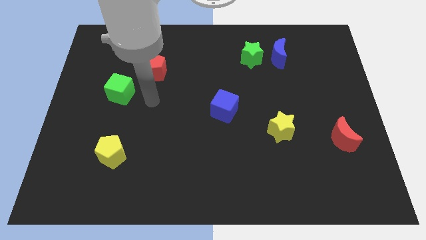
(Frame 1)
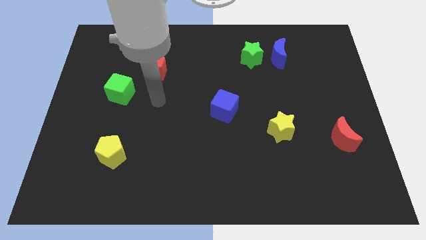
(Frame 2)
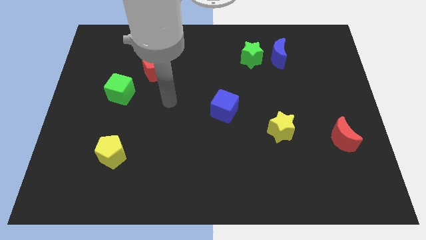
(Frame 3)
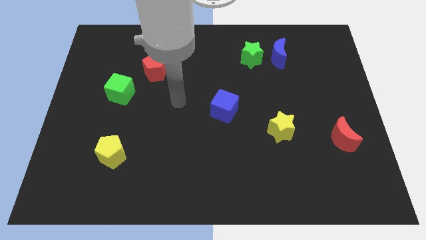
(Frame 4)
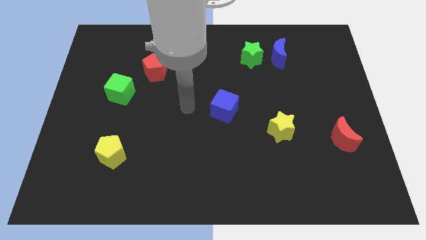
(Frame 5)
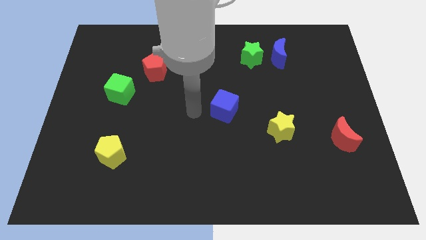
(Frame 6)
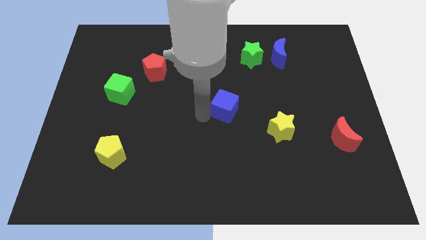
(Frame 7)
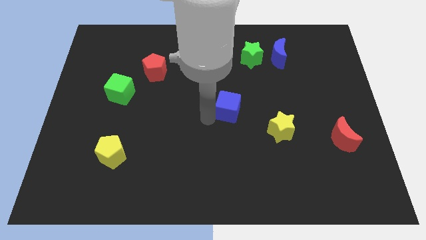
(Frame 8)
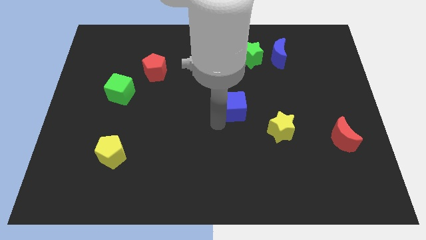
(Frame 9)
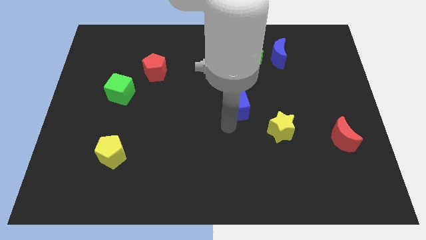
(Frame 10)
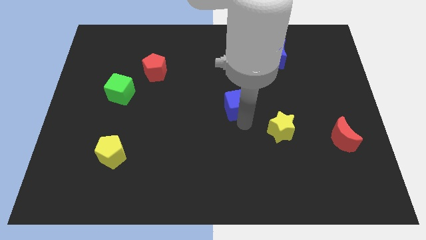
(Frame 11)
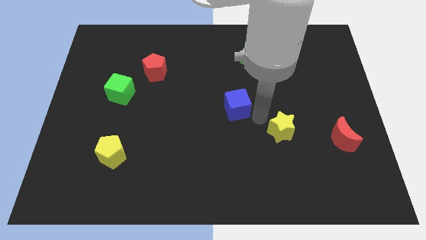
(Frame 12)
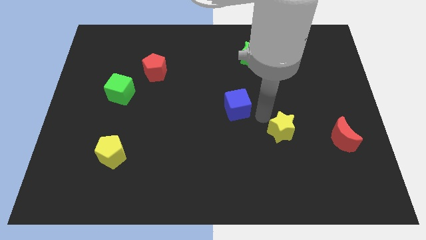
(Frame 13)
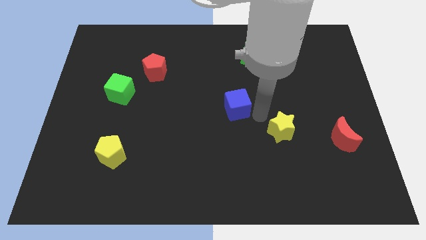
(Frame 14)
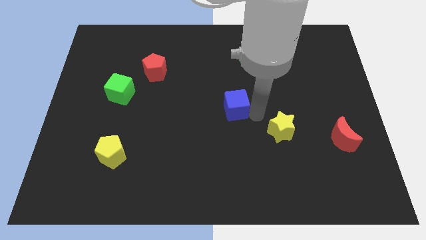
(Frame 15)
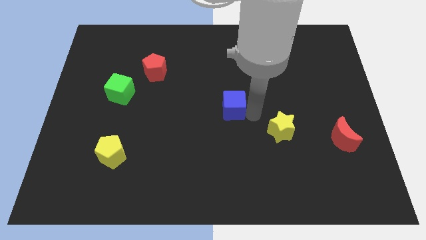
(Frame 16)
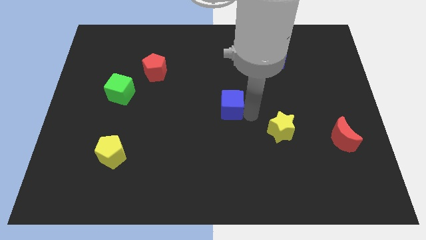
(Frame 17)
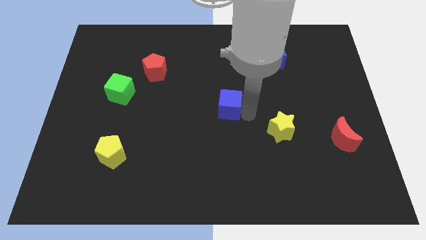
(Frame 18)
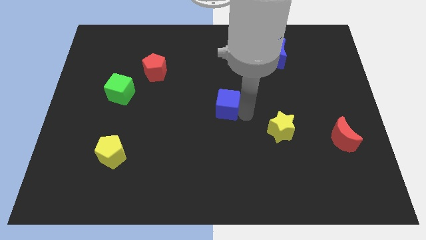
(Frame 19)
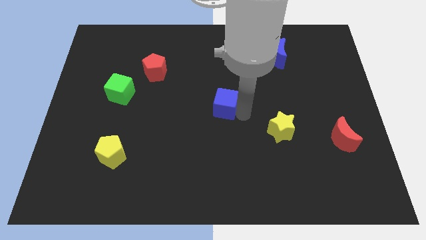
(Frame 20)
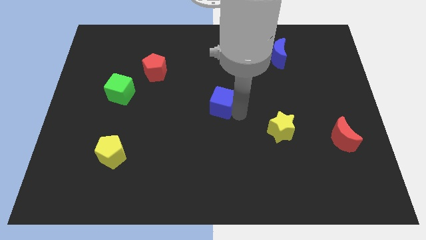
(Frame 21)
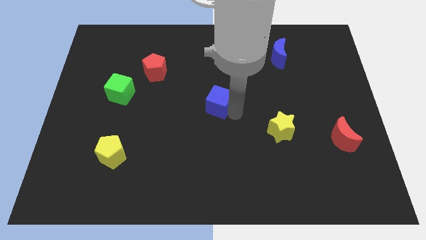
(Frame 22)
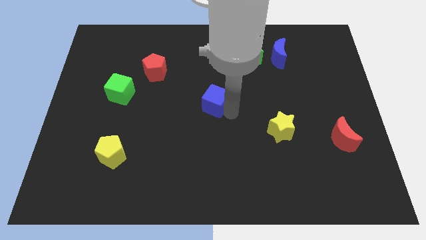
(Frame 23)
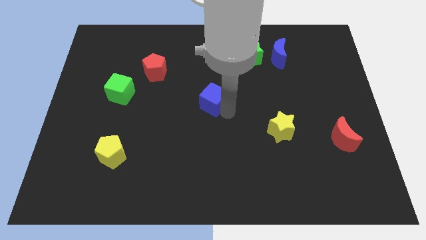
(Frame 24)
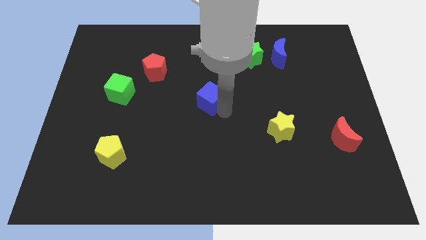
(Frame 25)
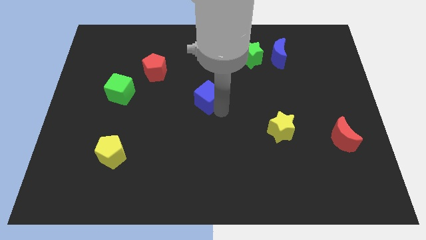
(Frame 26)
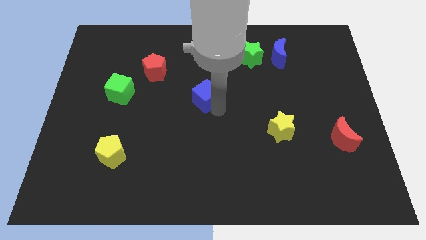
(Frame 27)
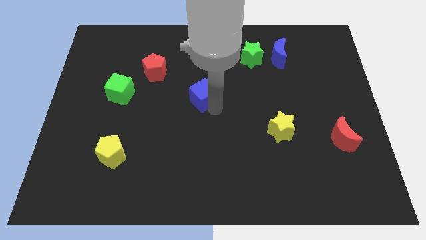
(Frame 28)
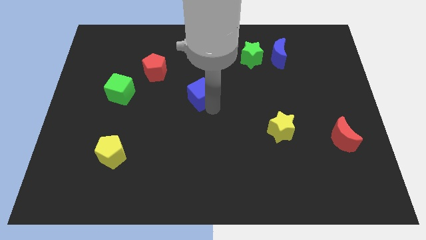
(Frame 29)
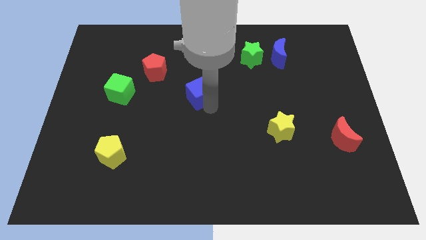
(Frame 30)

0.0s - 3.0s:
slide the blue cube up and to the left slightly

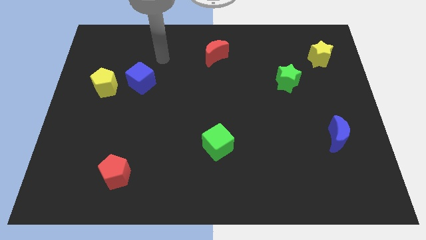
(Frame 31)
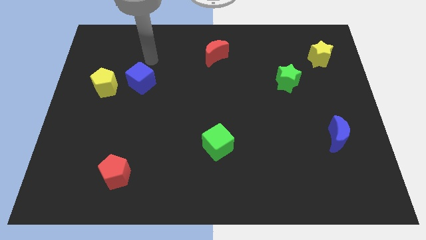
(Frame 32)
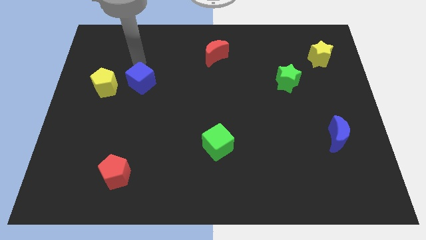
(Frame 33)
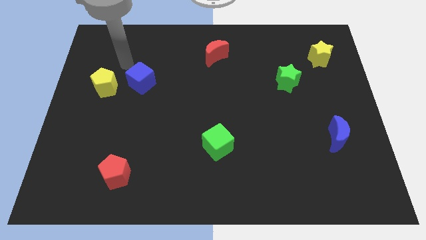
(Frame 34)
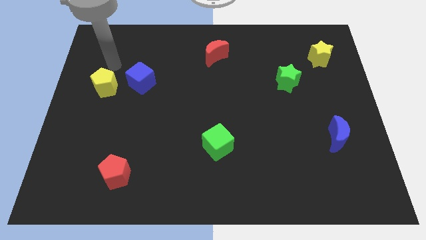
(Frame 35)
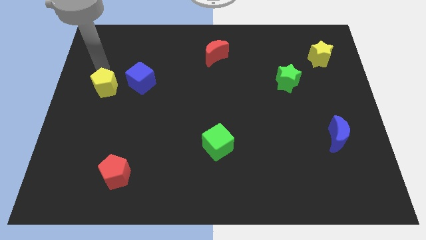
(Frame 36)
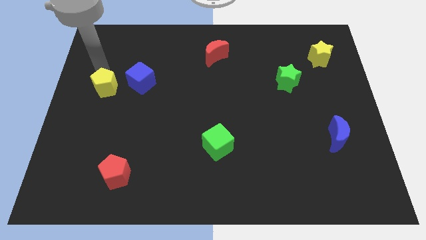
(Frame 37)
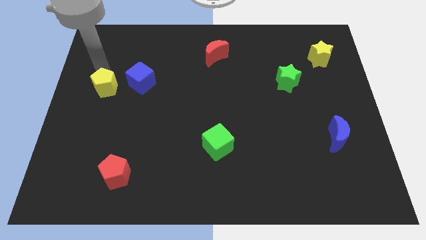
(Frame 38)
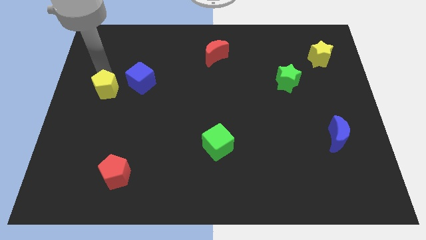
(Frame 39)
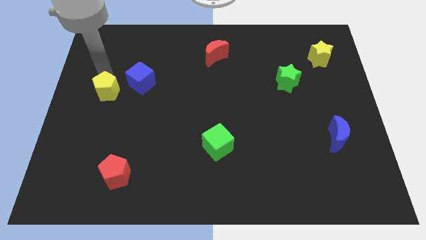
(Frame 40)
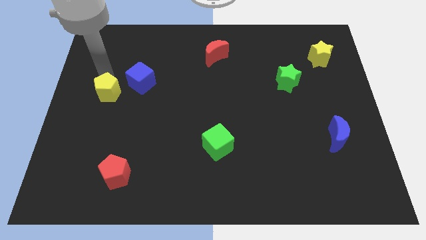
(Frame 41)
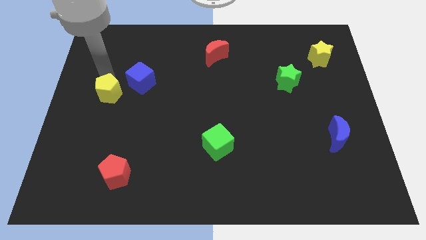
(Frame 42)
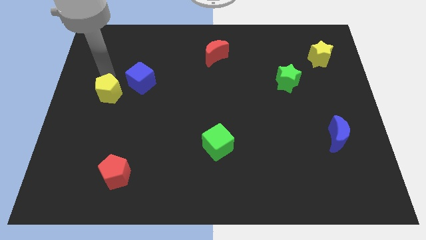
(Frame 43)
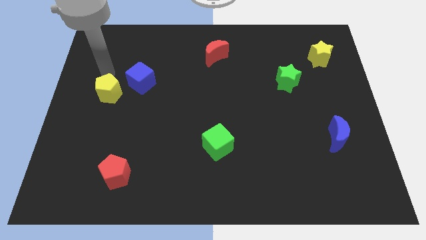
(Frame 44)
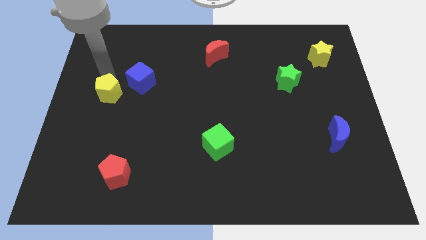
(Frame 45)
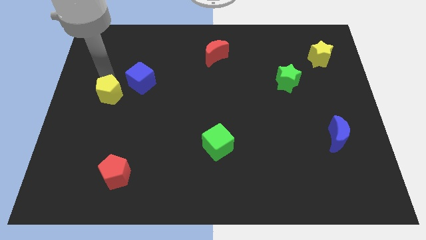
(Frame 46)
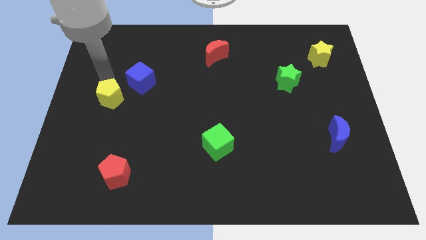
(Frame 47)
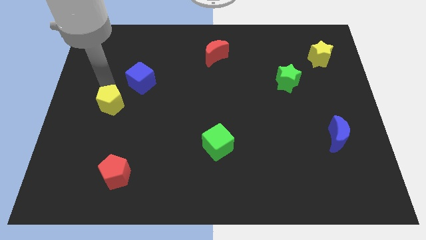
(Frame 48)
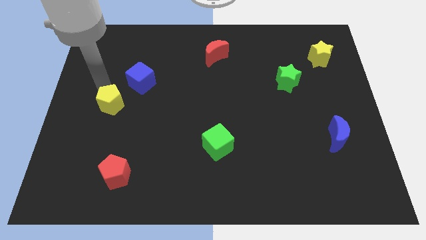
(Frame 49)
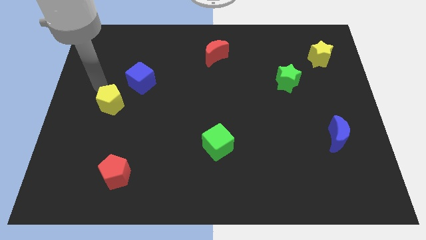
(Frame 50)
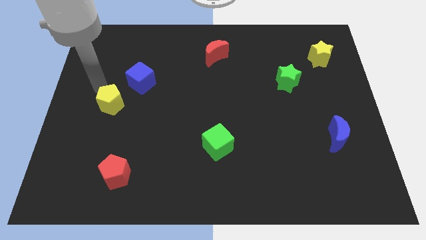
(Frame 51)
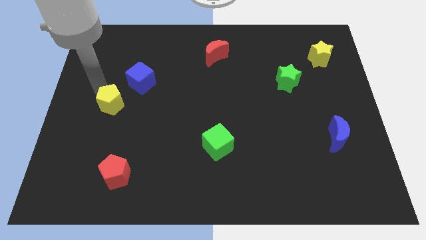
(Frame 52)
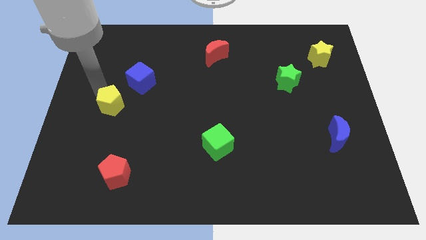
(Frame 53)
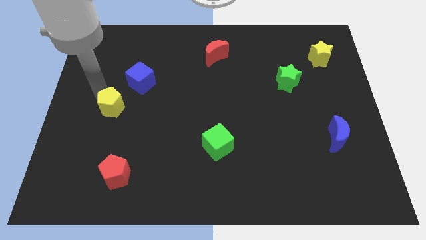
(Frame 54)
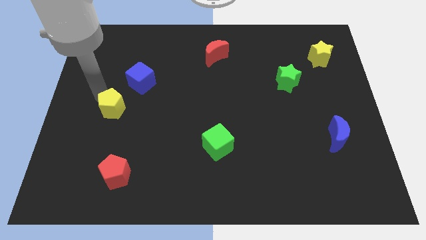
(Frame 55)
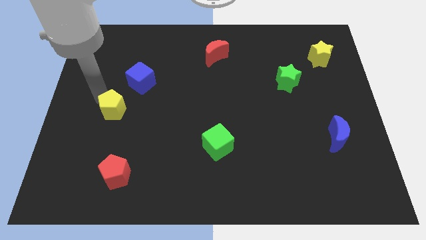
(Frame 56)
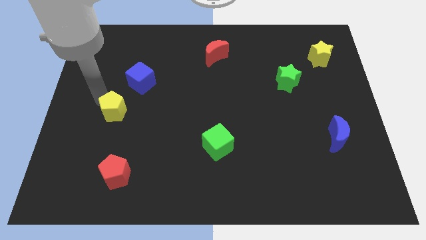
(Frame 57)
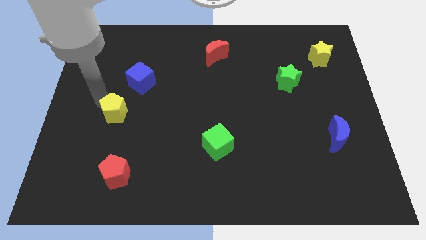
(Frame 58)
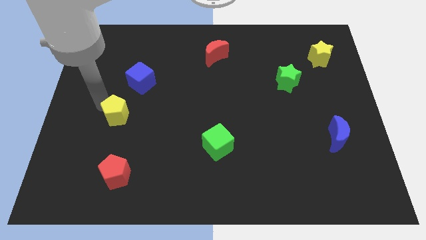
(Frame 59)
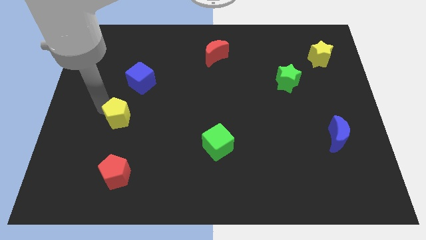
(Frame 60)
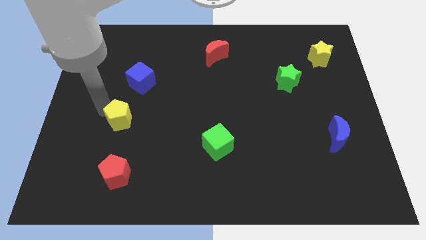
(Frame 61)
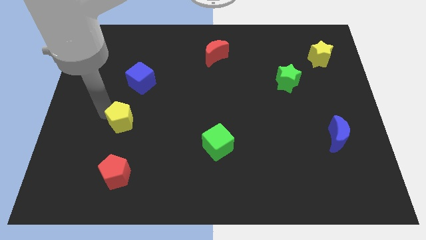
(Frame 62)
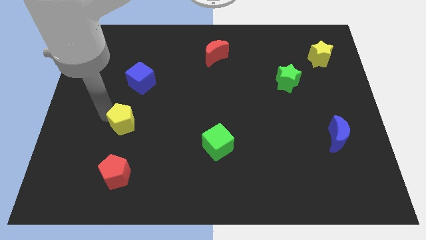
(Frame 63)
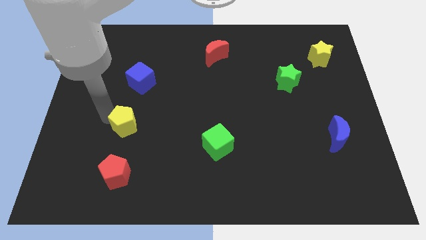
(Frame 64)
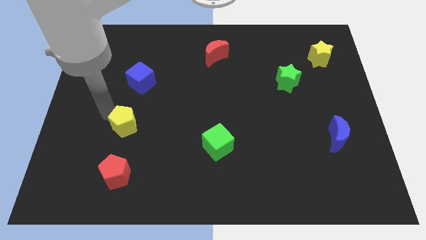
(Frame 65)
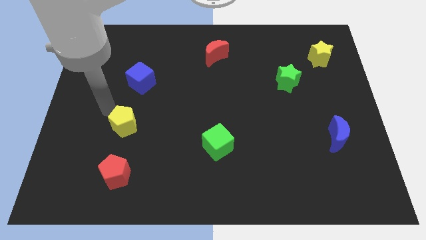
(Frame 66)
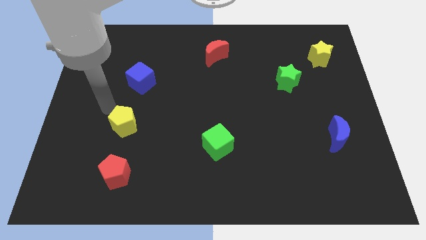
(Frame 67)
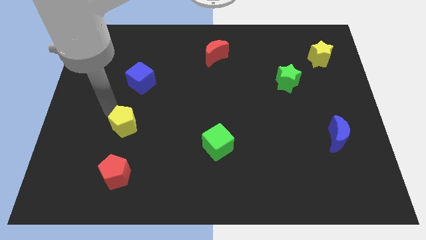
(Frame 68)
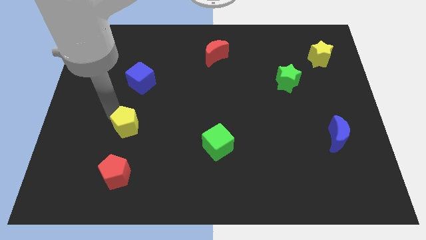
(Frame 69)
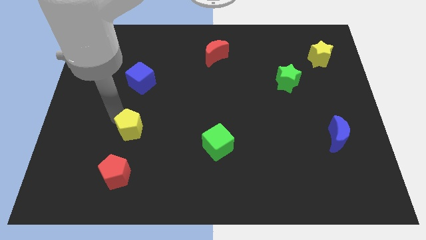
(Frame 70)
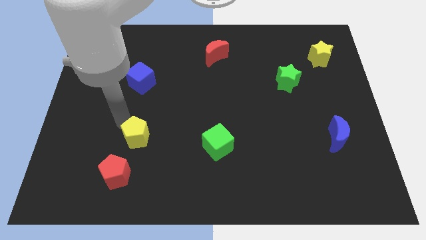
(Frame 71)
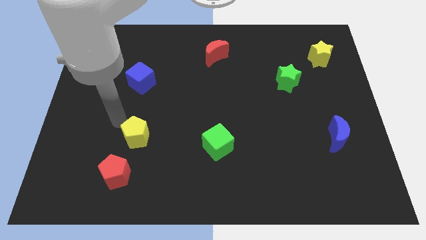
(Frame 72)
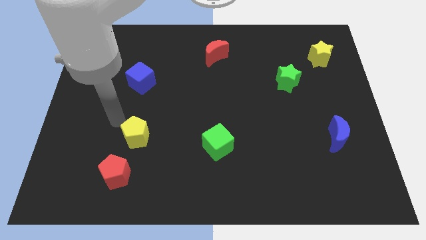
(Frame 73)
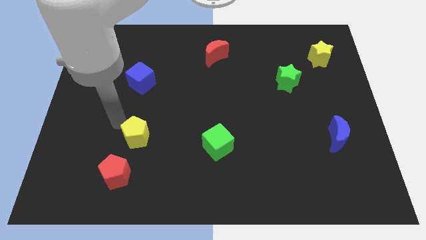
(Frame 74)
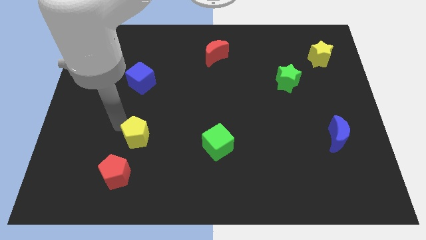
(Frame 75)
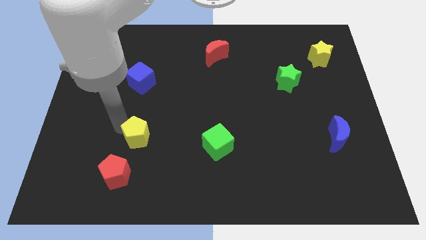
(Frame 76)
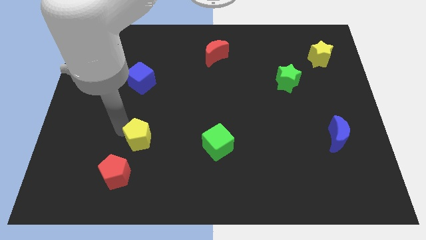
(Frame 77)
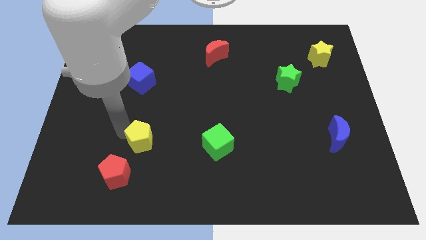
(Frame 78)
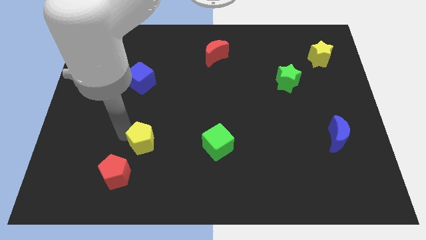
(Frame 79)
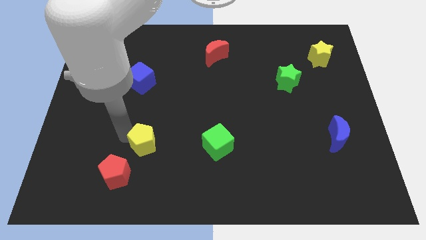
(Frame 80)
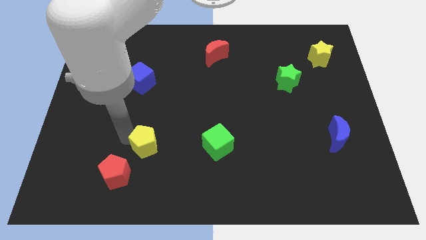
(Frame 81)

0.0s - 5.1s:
push the yellow pentagon diagonally down and right

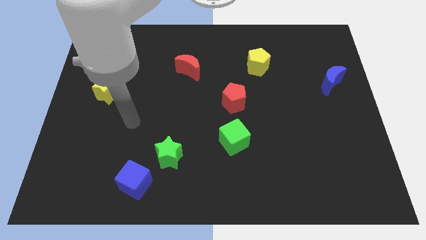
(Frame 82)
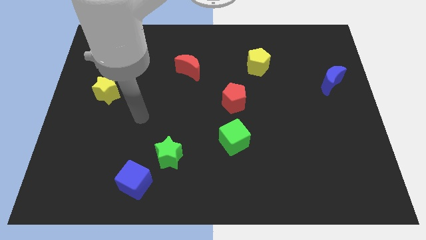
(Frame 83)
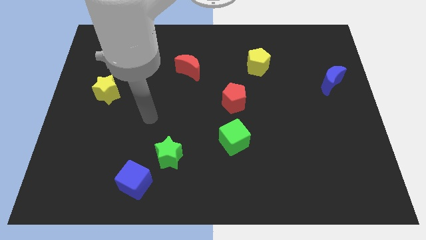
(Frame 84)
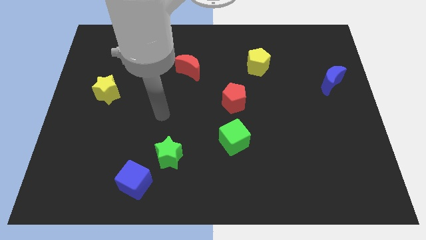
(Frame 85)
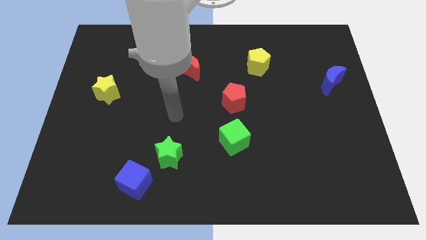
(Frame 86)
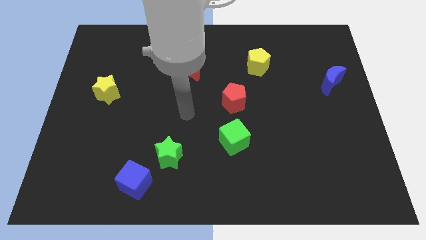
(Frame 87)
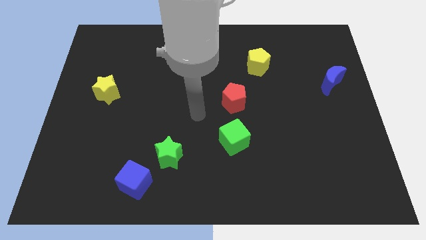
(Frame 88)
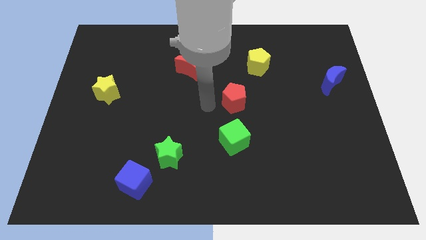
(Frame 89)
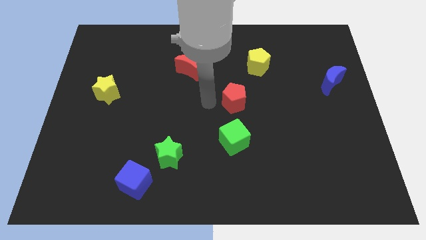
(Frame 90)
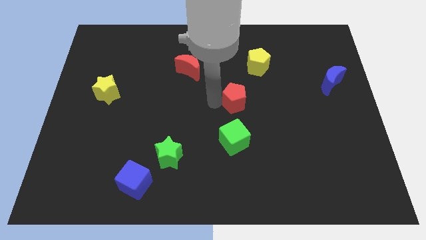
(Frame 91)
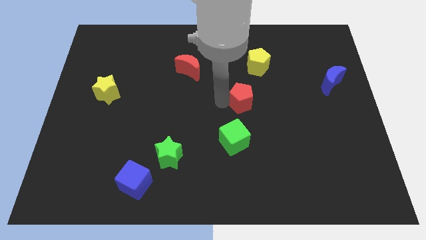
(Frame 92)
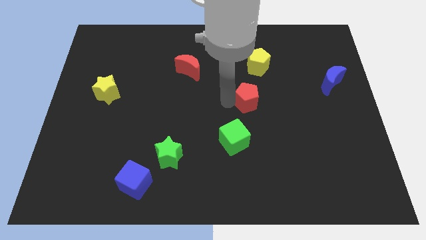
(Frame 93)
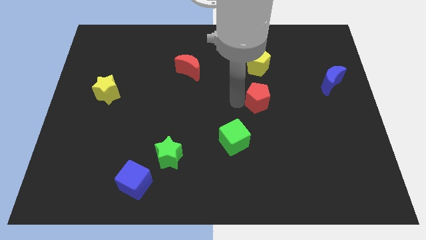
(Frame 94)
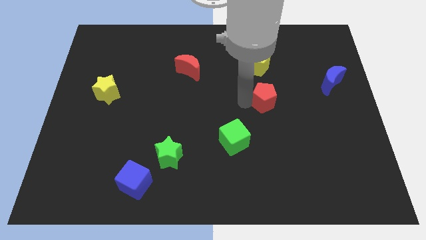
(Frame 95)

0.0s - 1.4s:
slightly push the red pentagon to the right
